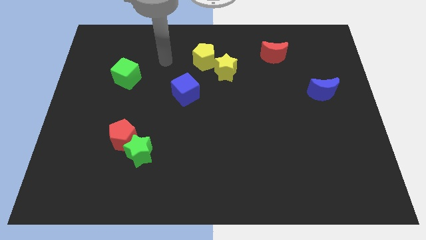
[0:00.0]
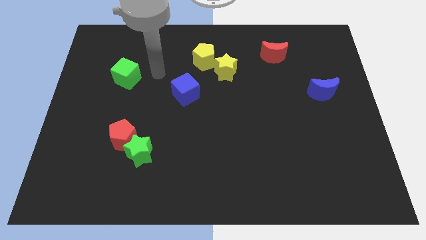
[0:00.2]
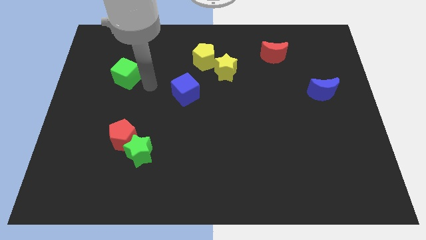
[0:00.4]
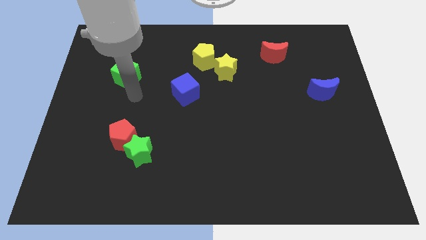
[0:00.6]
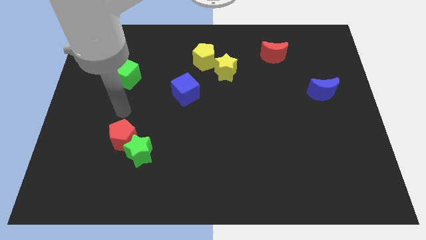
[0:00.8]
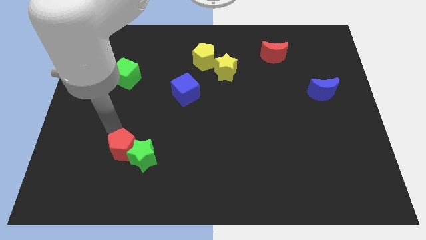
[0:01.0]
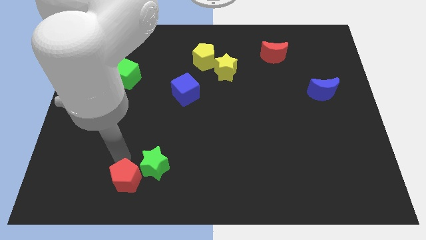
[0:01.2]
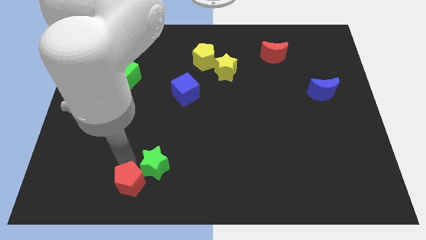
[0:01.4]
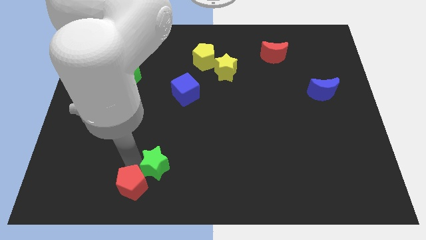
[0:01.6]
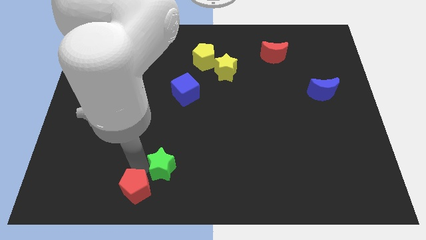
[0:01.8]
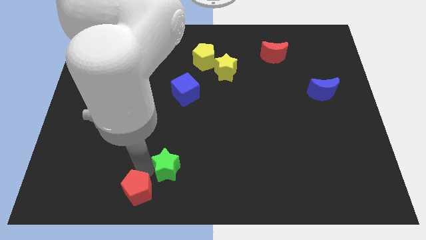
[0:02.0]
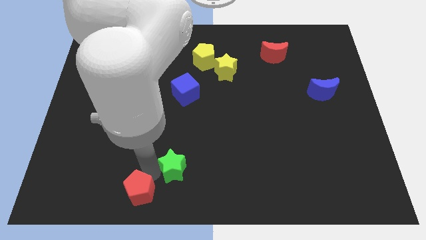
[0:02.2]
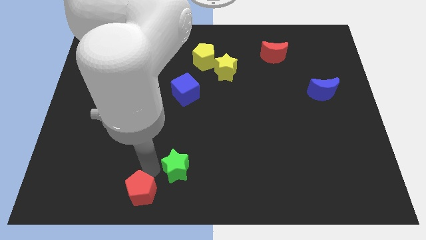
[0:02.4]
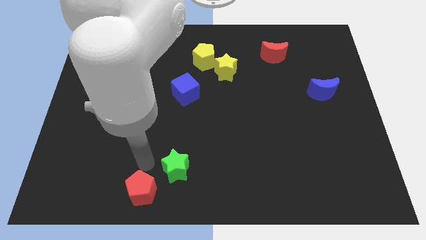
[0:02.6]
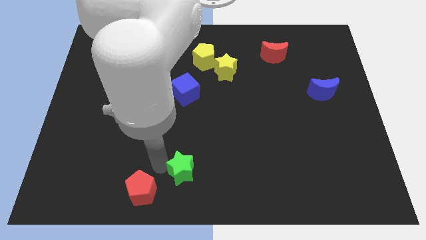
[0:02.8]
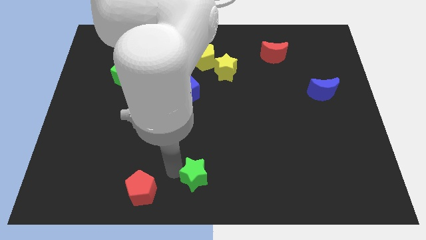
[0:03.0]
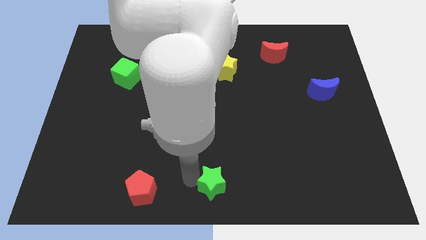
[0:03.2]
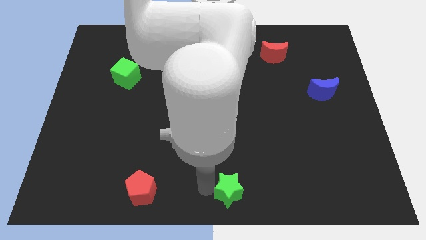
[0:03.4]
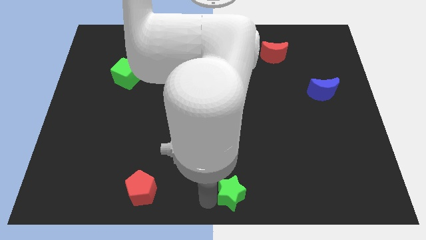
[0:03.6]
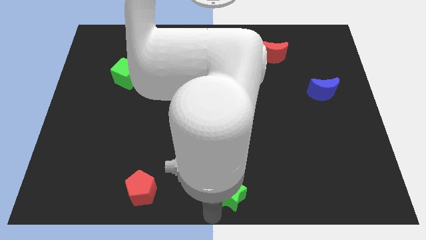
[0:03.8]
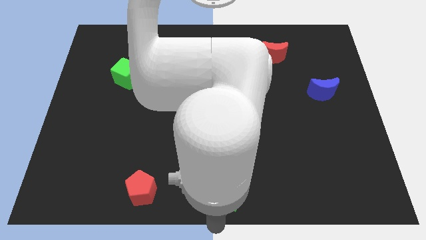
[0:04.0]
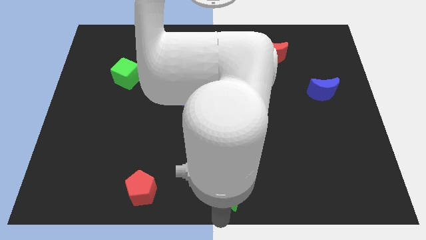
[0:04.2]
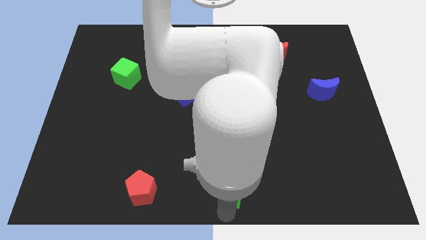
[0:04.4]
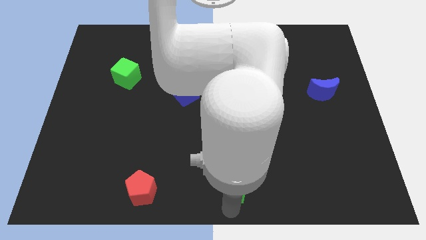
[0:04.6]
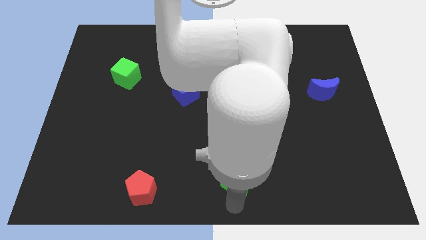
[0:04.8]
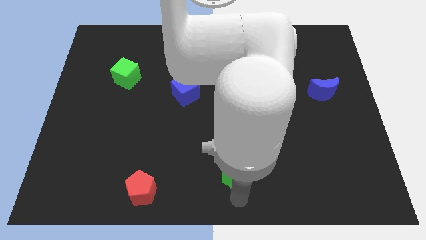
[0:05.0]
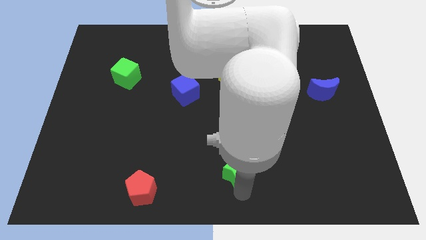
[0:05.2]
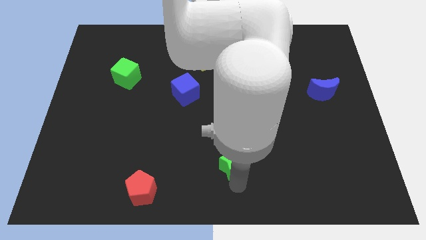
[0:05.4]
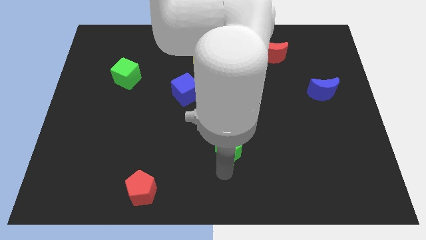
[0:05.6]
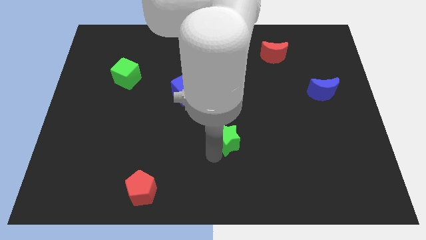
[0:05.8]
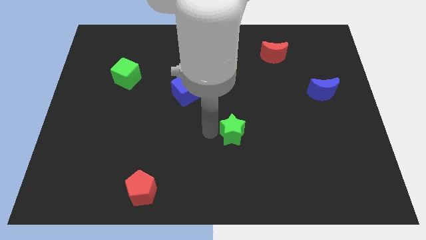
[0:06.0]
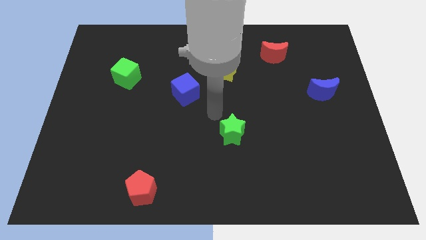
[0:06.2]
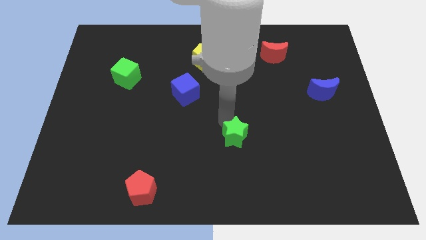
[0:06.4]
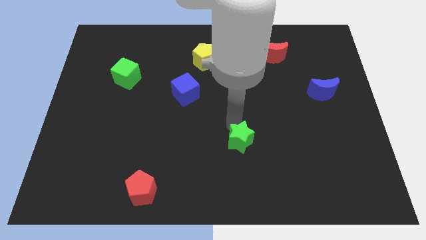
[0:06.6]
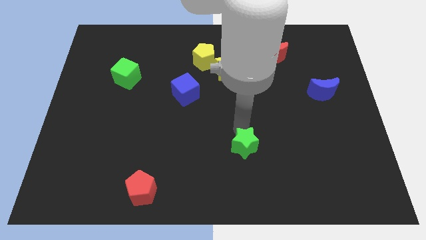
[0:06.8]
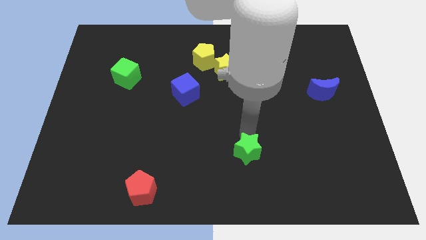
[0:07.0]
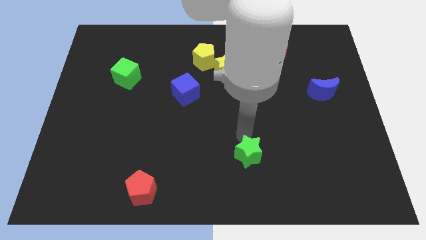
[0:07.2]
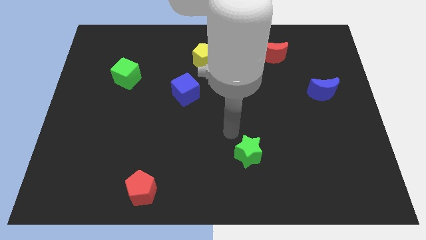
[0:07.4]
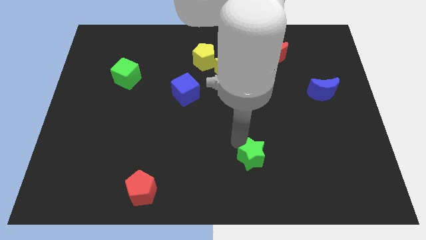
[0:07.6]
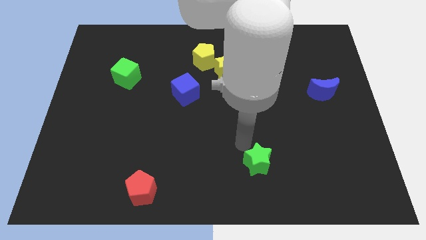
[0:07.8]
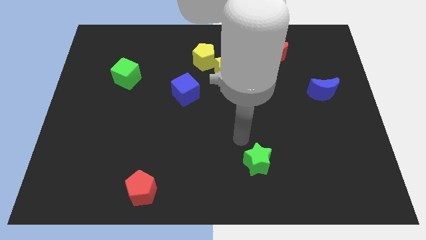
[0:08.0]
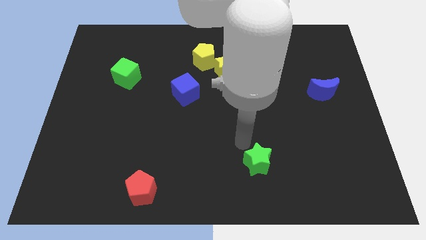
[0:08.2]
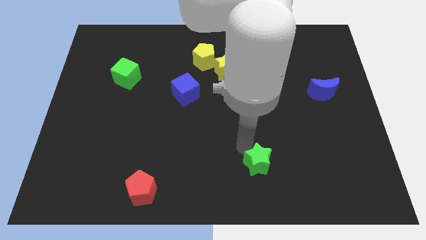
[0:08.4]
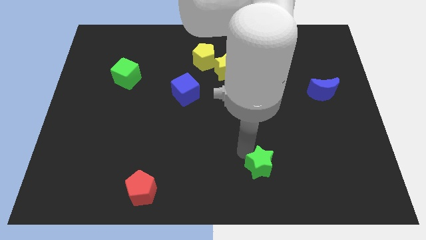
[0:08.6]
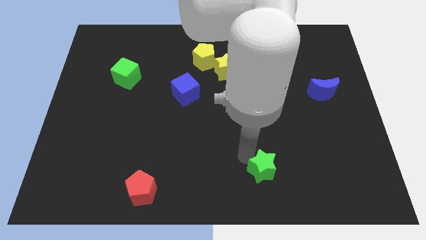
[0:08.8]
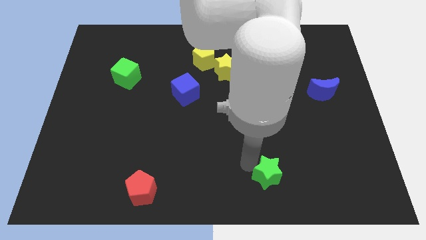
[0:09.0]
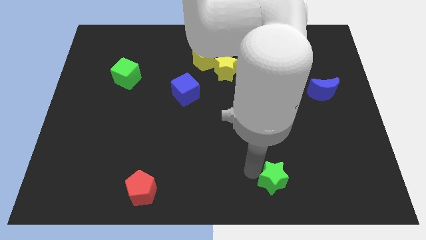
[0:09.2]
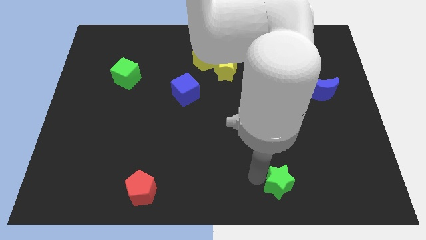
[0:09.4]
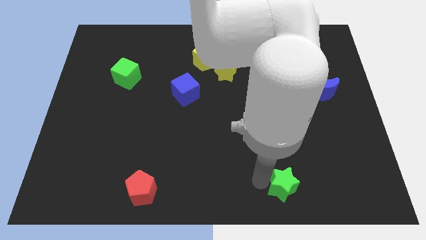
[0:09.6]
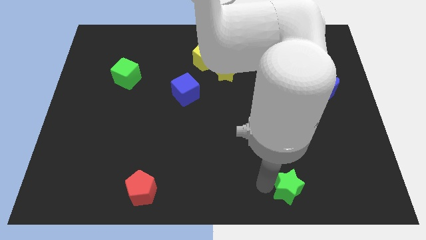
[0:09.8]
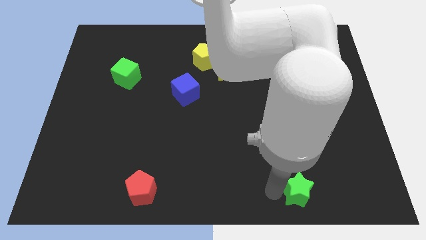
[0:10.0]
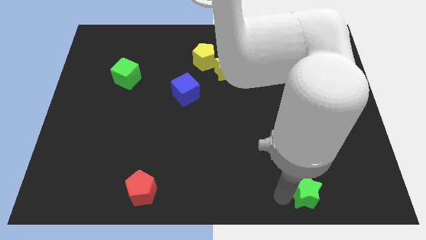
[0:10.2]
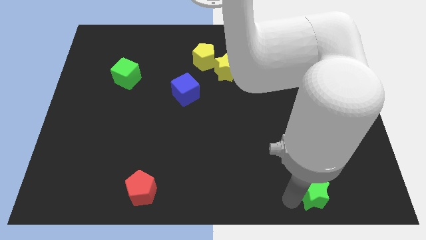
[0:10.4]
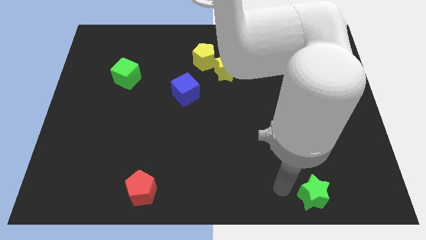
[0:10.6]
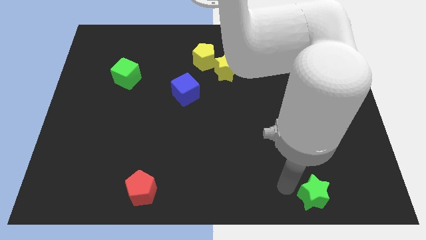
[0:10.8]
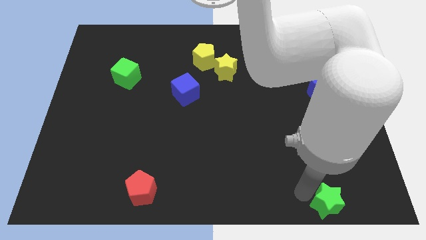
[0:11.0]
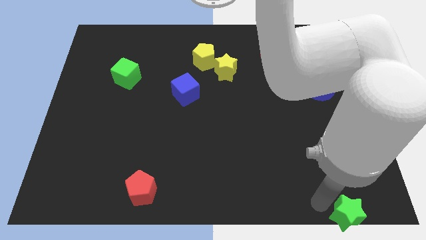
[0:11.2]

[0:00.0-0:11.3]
put the green star to the lower right corner

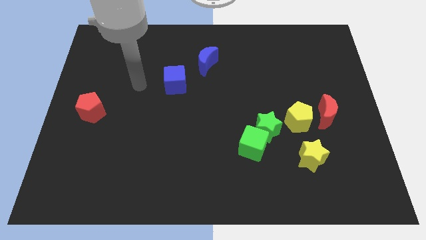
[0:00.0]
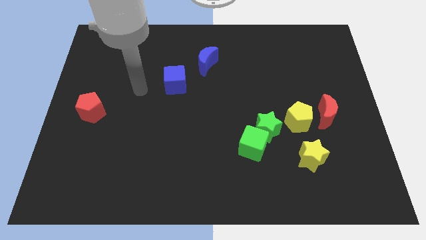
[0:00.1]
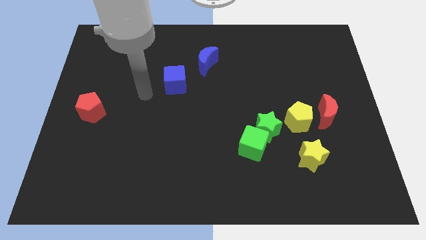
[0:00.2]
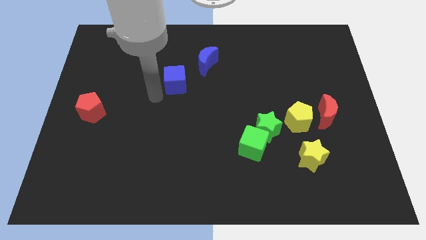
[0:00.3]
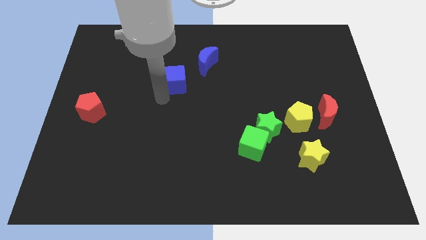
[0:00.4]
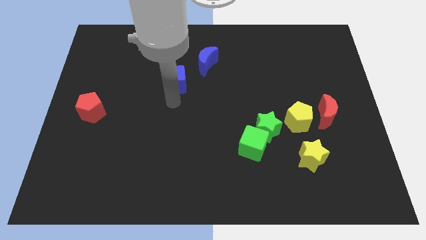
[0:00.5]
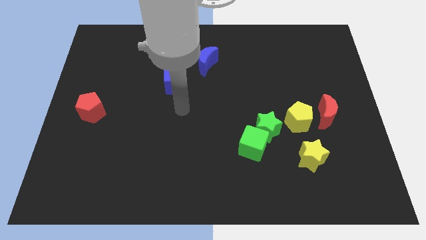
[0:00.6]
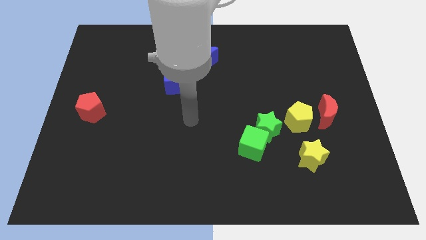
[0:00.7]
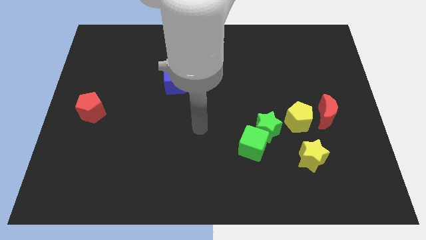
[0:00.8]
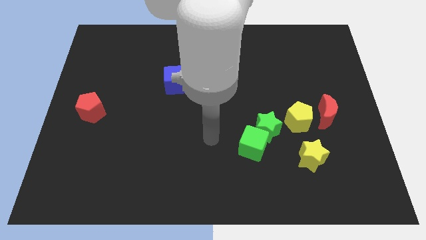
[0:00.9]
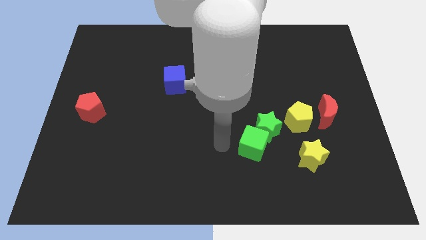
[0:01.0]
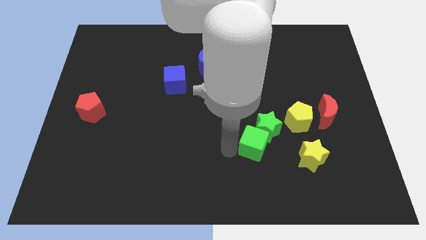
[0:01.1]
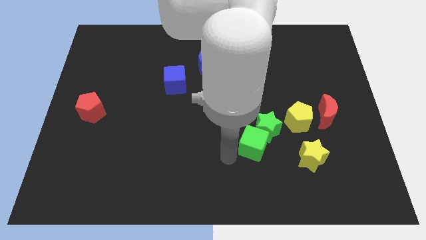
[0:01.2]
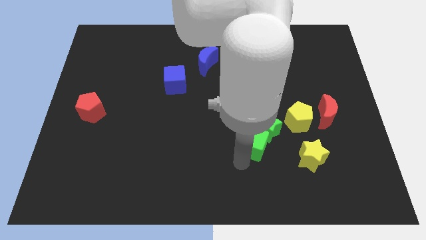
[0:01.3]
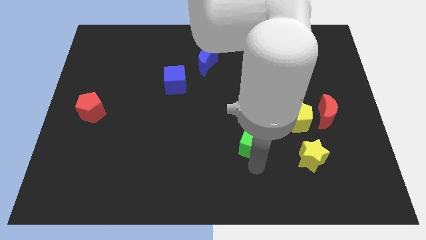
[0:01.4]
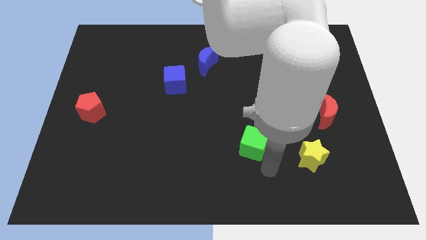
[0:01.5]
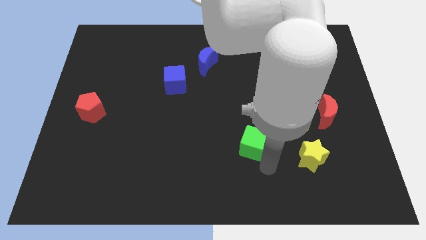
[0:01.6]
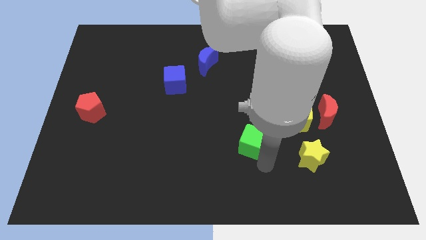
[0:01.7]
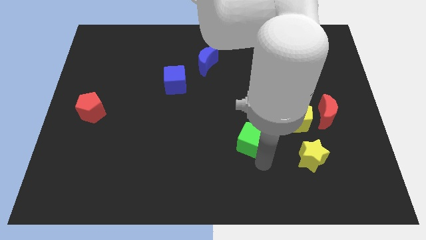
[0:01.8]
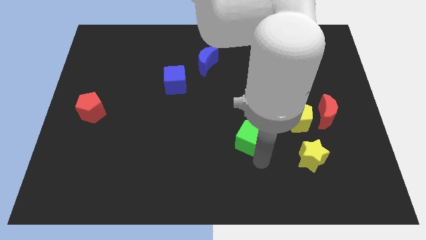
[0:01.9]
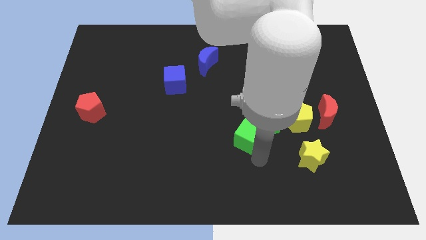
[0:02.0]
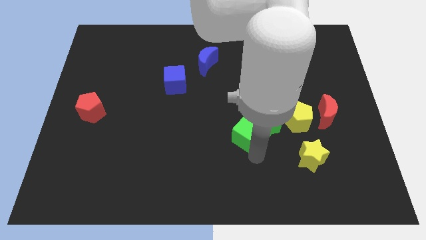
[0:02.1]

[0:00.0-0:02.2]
slide the green cube to the center of the board
